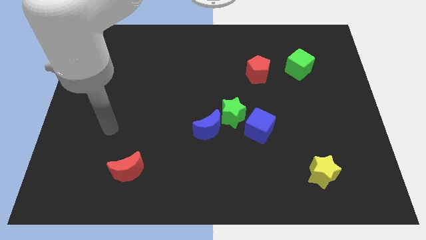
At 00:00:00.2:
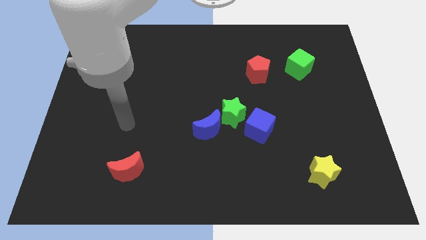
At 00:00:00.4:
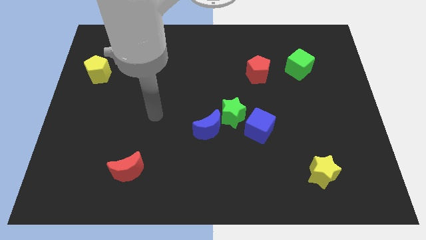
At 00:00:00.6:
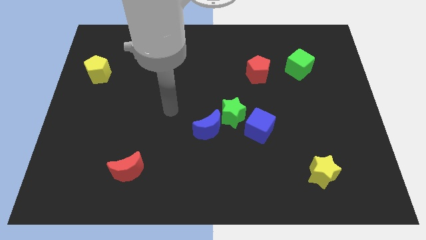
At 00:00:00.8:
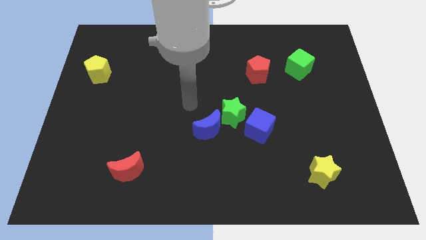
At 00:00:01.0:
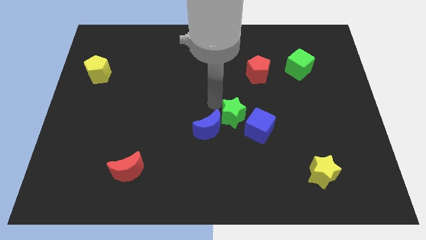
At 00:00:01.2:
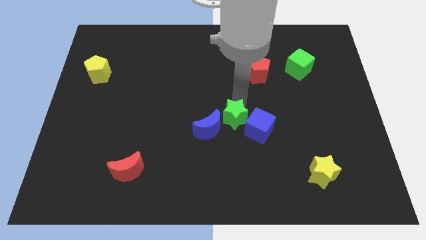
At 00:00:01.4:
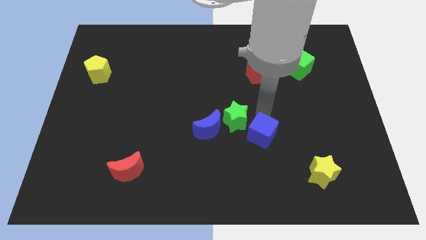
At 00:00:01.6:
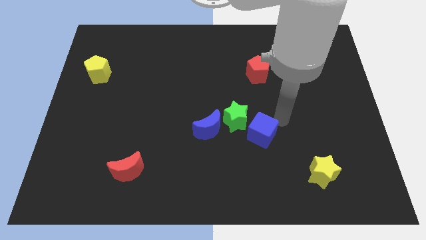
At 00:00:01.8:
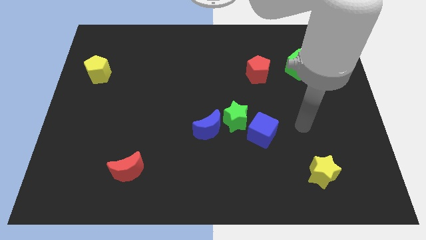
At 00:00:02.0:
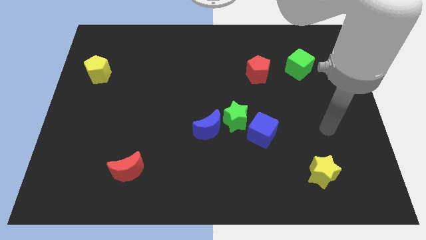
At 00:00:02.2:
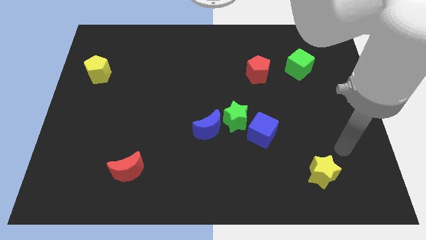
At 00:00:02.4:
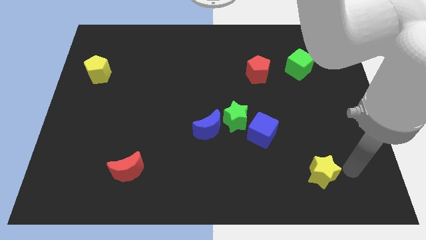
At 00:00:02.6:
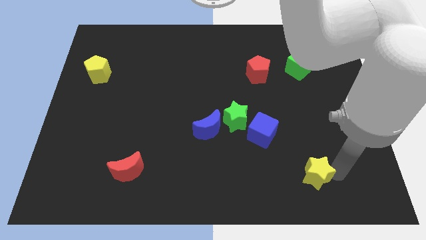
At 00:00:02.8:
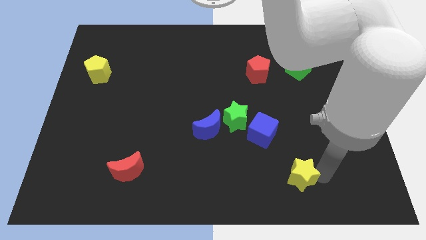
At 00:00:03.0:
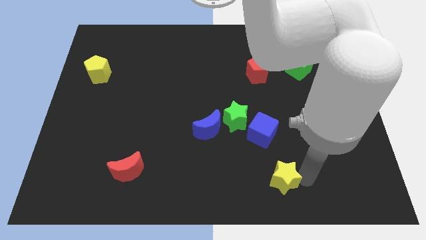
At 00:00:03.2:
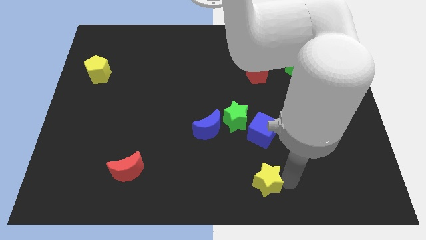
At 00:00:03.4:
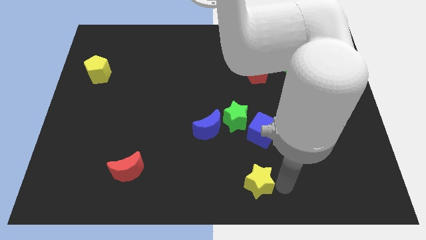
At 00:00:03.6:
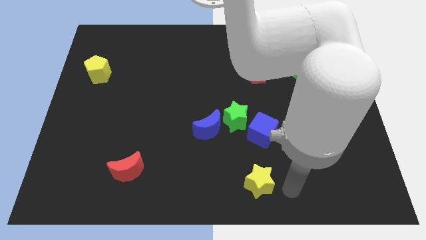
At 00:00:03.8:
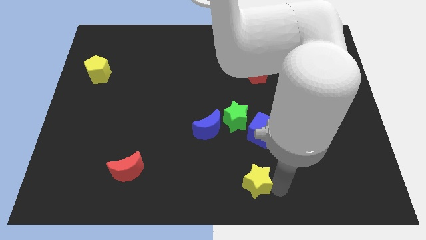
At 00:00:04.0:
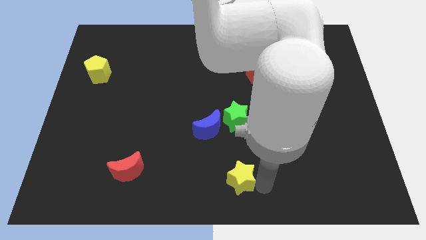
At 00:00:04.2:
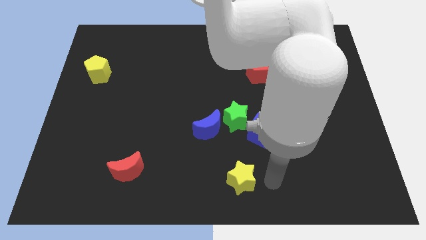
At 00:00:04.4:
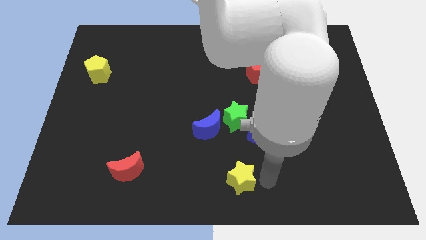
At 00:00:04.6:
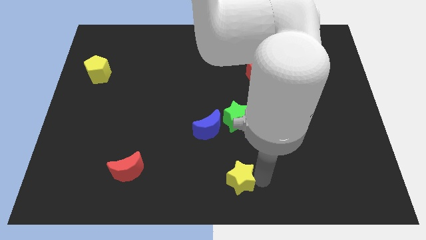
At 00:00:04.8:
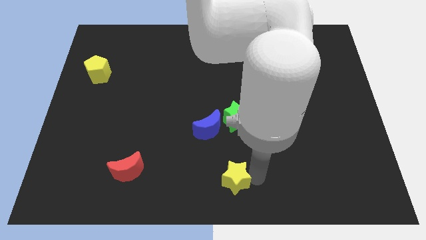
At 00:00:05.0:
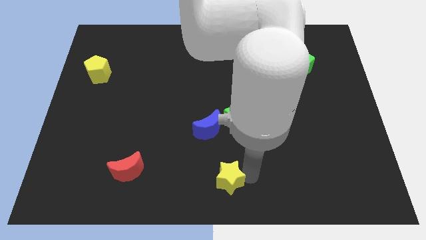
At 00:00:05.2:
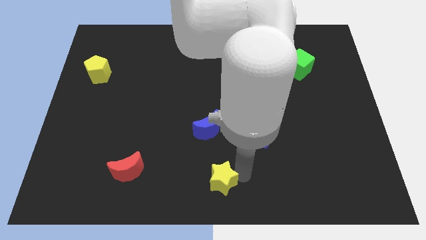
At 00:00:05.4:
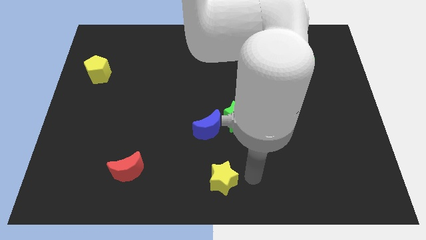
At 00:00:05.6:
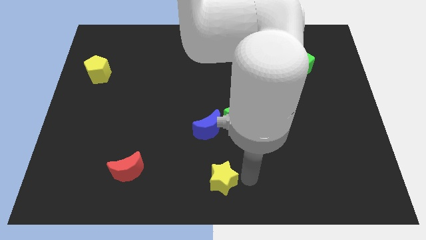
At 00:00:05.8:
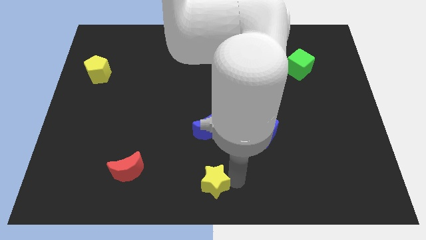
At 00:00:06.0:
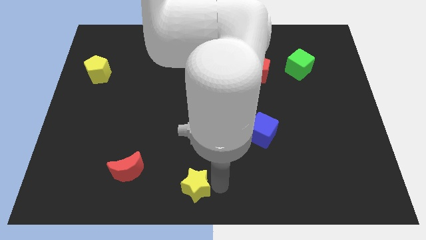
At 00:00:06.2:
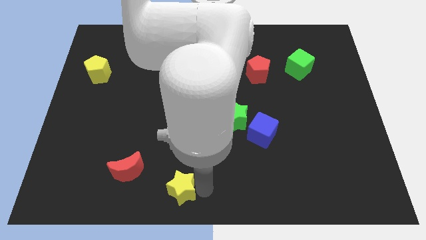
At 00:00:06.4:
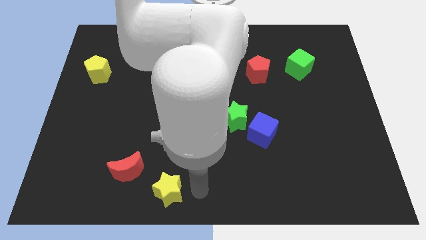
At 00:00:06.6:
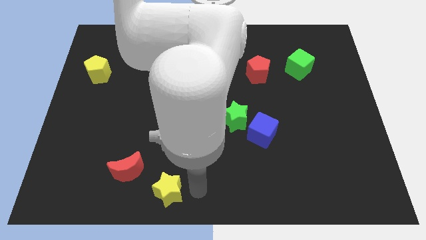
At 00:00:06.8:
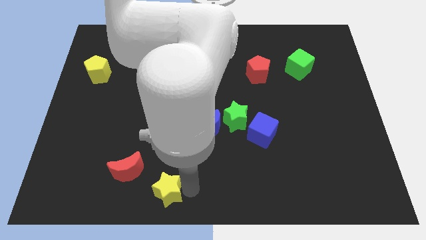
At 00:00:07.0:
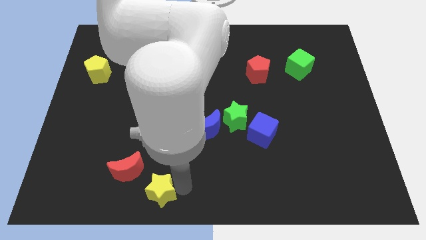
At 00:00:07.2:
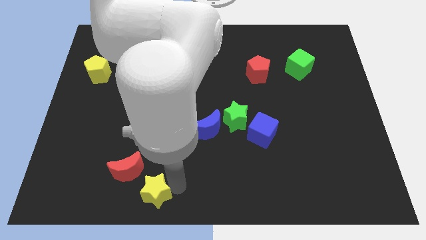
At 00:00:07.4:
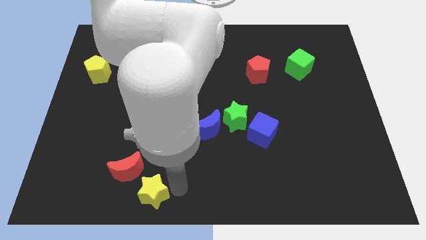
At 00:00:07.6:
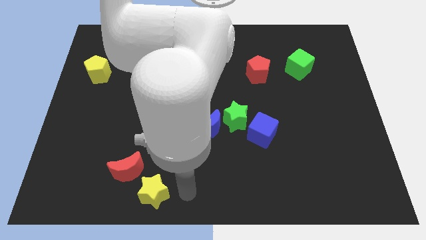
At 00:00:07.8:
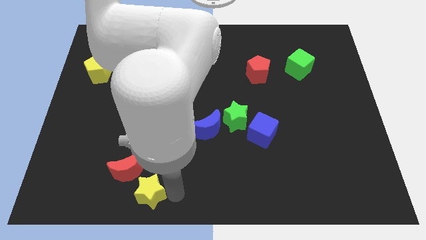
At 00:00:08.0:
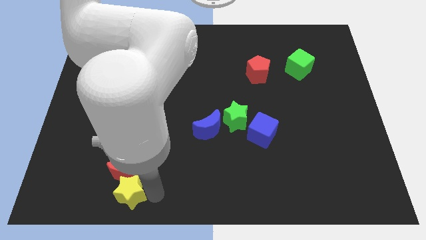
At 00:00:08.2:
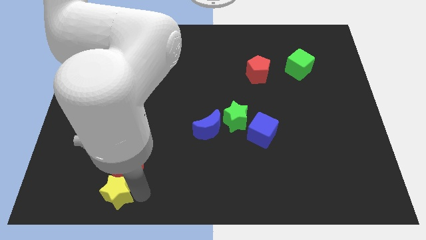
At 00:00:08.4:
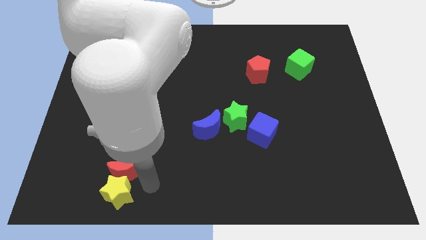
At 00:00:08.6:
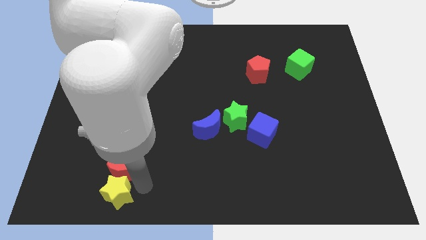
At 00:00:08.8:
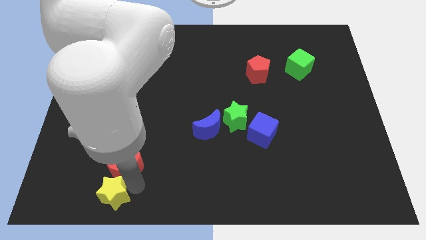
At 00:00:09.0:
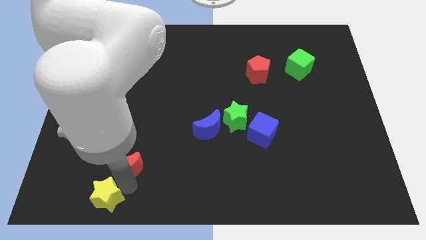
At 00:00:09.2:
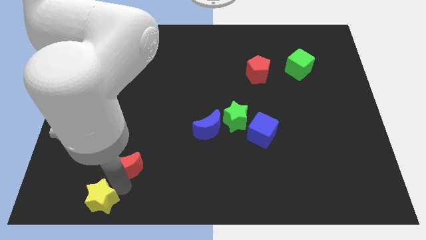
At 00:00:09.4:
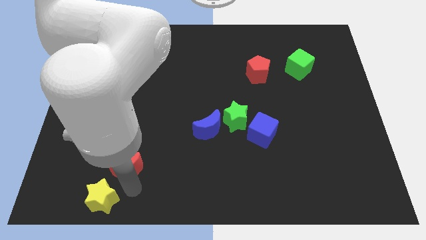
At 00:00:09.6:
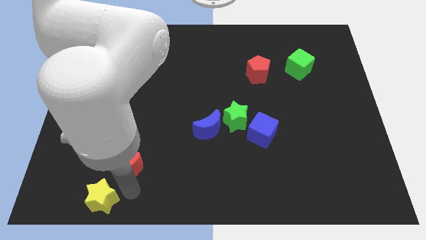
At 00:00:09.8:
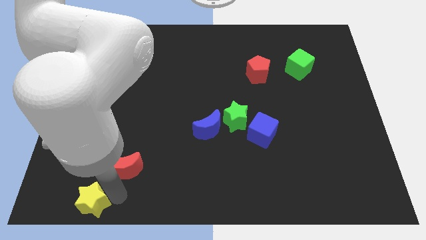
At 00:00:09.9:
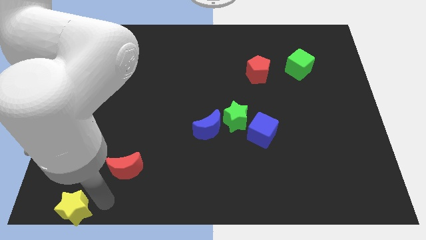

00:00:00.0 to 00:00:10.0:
slide the yellow star to the bottom left

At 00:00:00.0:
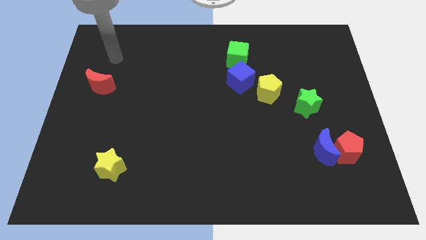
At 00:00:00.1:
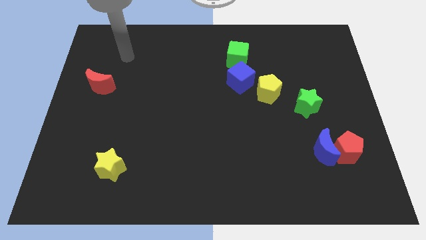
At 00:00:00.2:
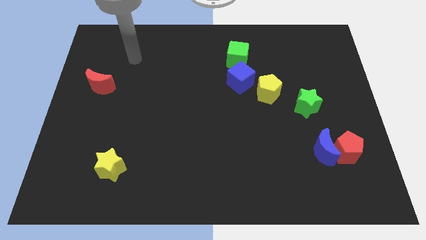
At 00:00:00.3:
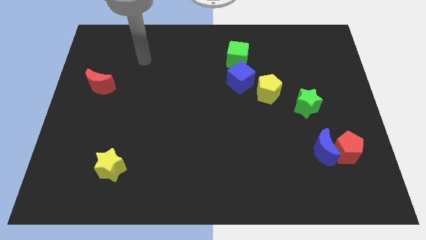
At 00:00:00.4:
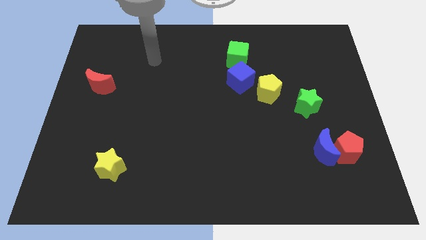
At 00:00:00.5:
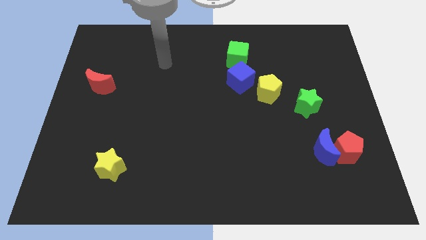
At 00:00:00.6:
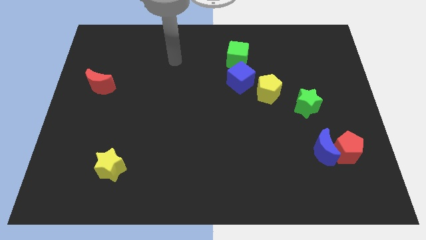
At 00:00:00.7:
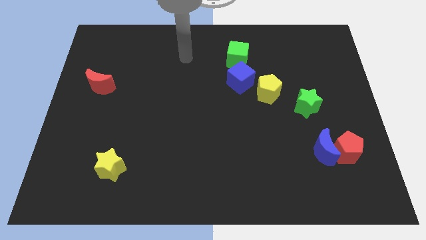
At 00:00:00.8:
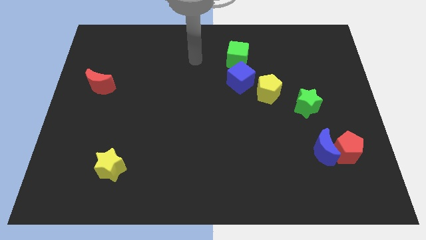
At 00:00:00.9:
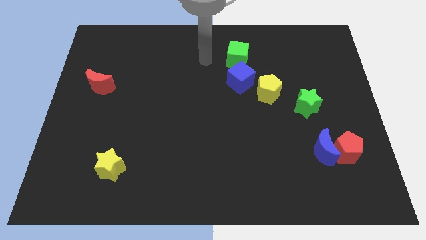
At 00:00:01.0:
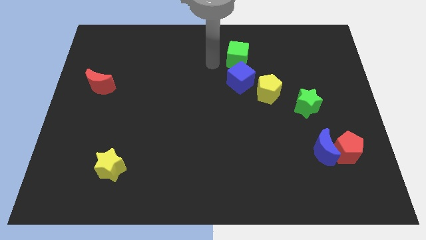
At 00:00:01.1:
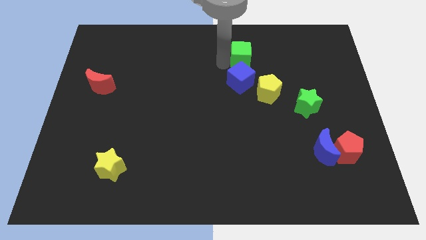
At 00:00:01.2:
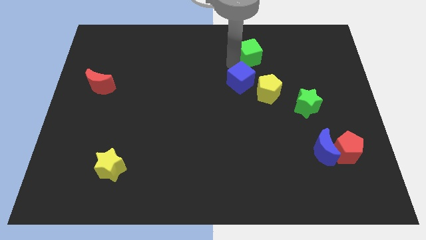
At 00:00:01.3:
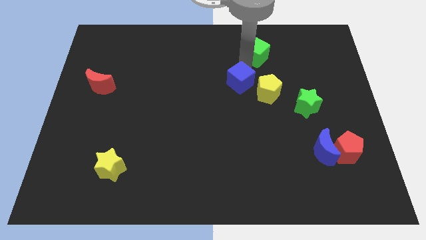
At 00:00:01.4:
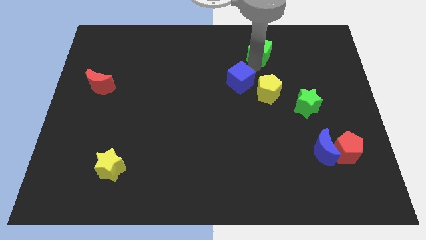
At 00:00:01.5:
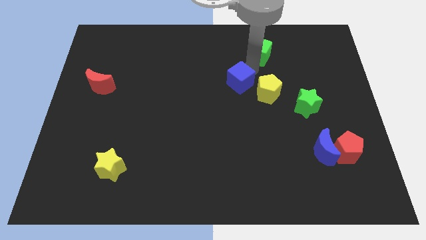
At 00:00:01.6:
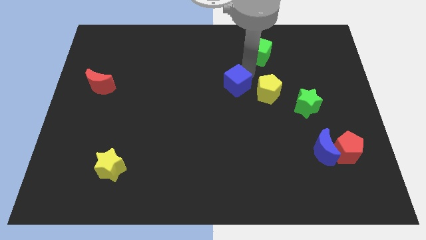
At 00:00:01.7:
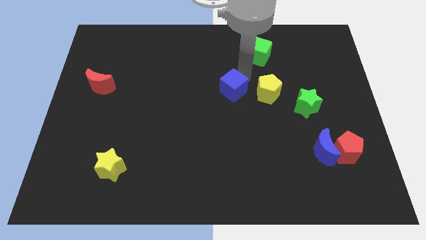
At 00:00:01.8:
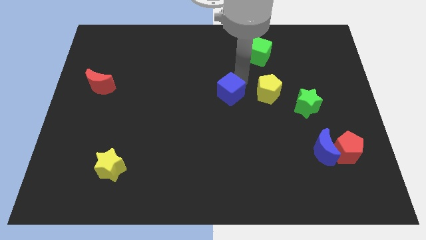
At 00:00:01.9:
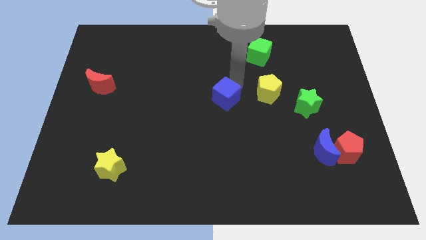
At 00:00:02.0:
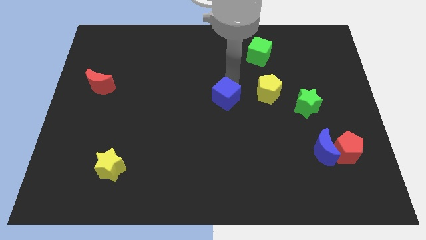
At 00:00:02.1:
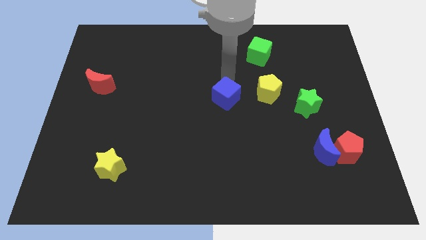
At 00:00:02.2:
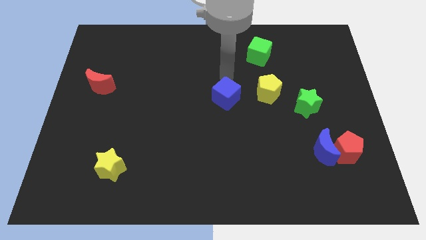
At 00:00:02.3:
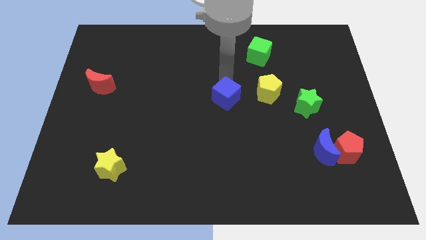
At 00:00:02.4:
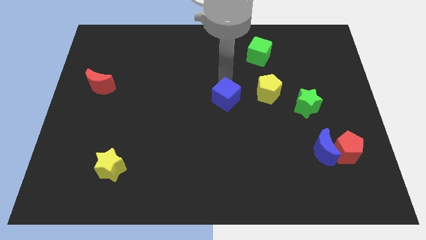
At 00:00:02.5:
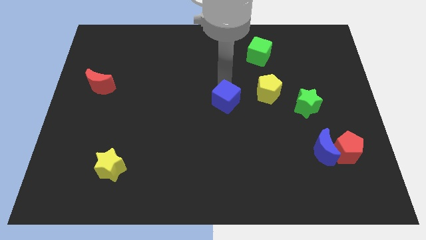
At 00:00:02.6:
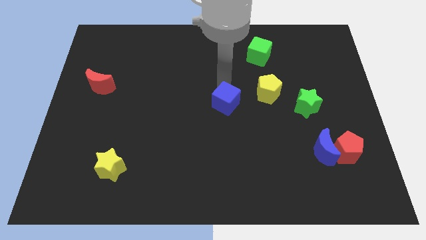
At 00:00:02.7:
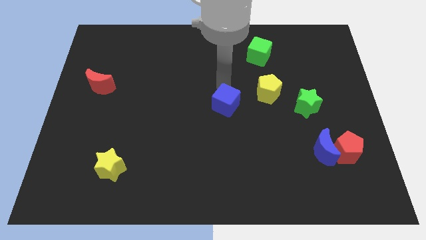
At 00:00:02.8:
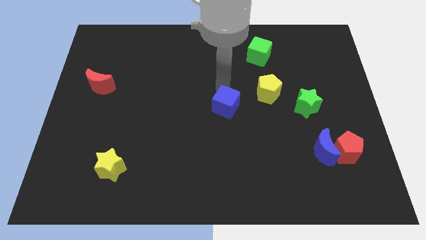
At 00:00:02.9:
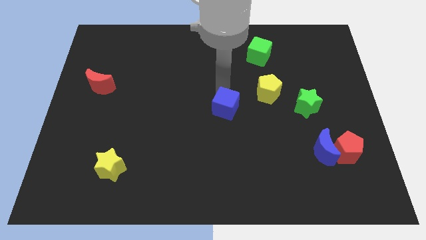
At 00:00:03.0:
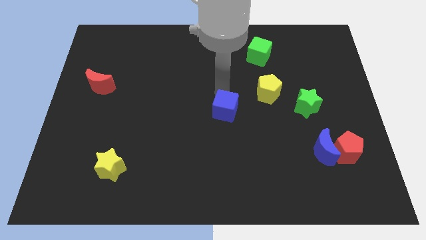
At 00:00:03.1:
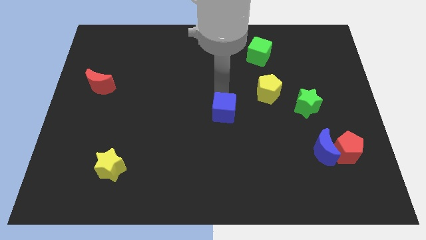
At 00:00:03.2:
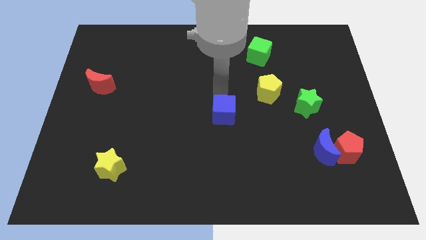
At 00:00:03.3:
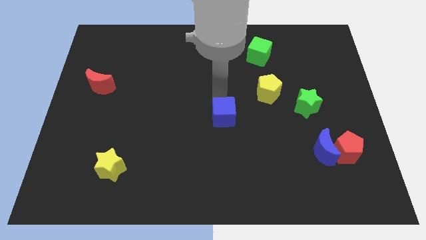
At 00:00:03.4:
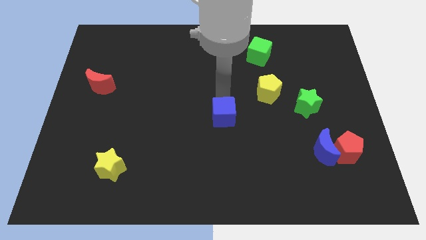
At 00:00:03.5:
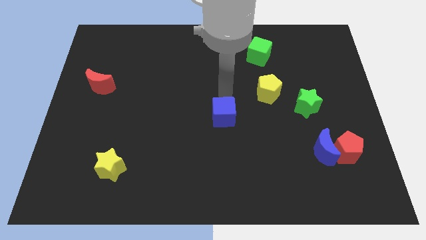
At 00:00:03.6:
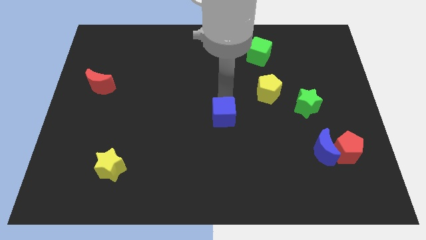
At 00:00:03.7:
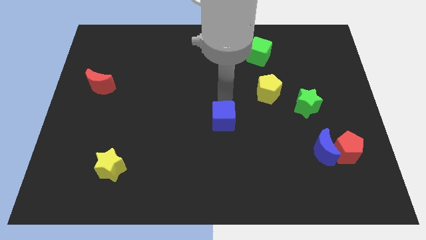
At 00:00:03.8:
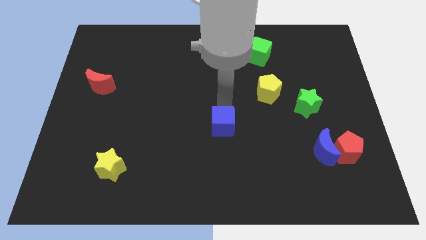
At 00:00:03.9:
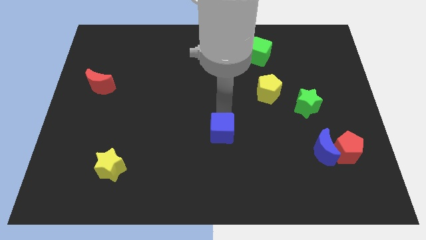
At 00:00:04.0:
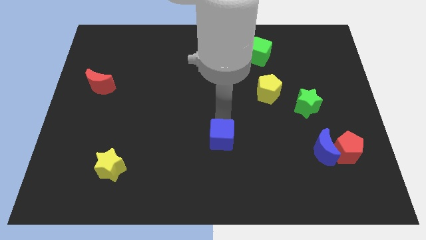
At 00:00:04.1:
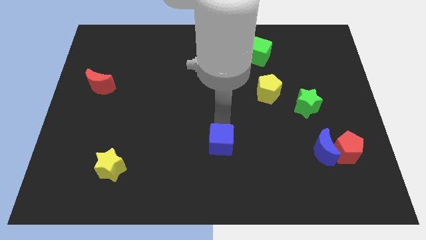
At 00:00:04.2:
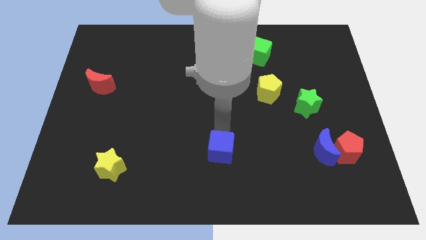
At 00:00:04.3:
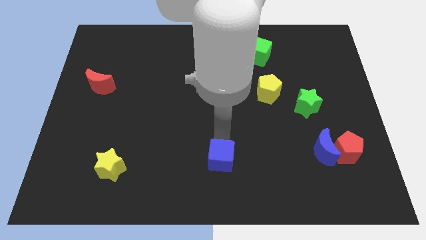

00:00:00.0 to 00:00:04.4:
move the blue cube to the bottom side
